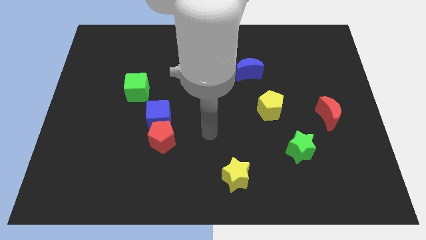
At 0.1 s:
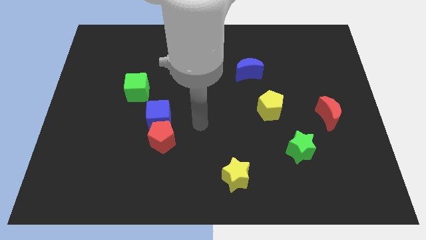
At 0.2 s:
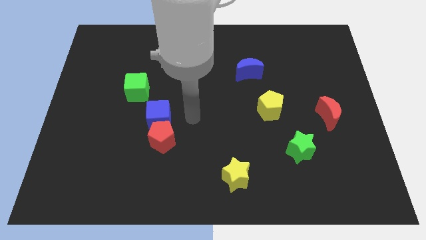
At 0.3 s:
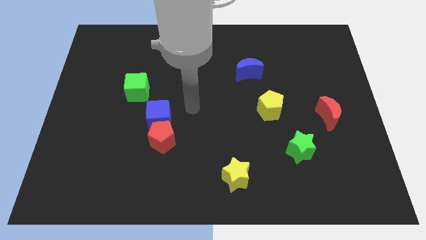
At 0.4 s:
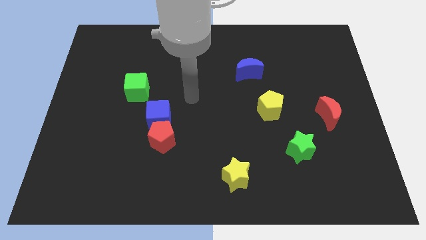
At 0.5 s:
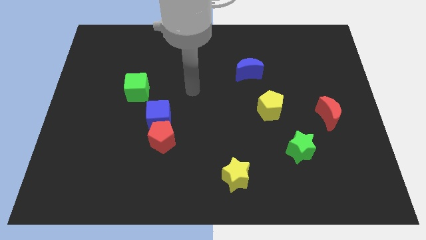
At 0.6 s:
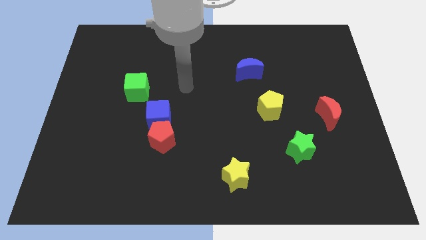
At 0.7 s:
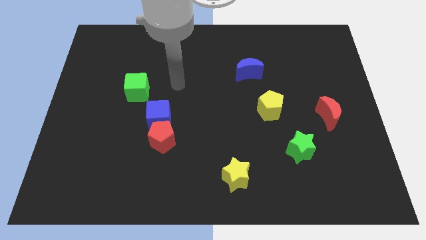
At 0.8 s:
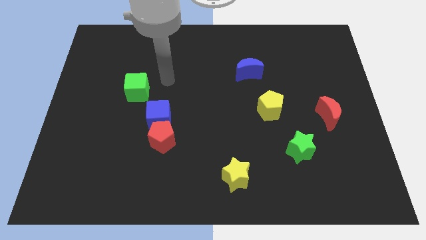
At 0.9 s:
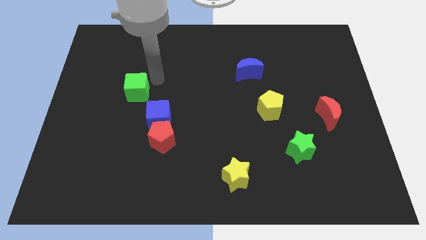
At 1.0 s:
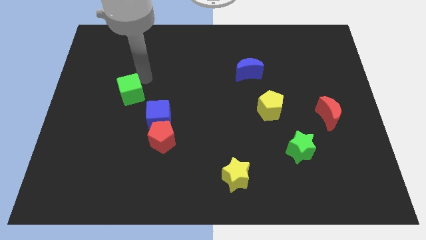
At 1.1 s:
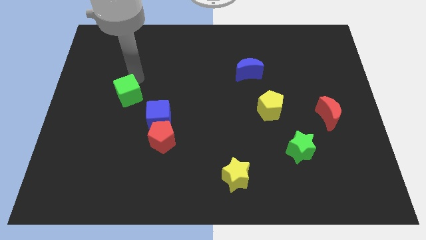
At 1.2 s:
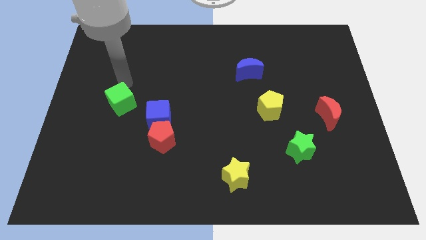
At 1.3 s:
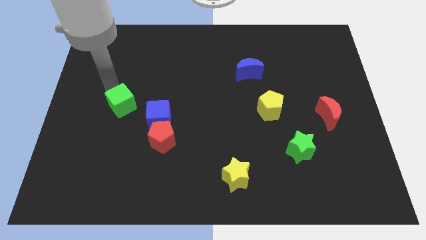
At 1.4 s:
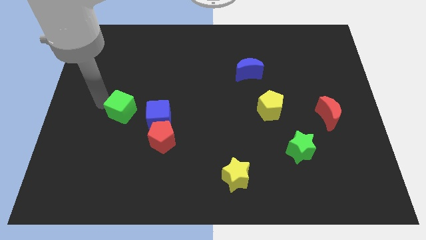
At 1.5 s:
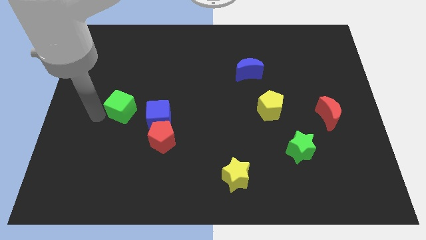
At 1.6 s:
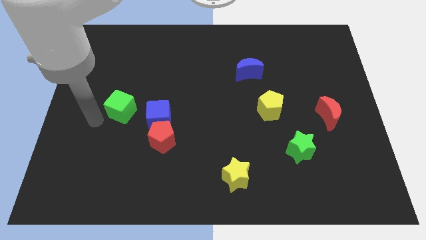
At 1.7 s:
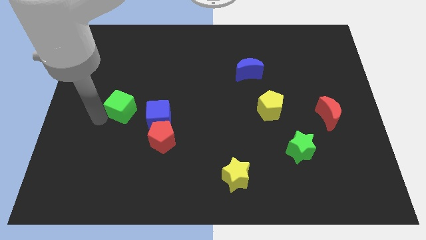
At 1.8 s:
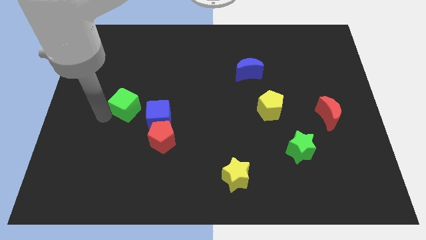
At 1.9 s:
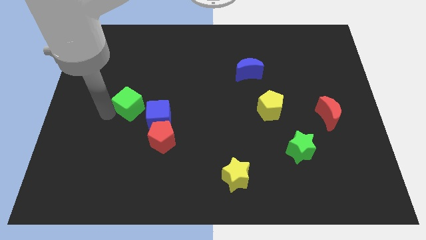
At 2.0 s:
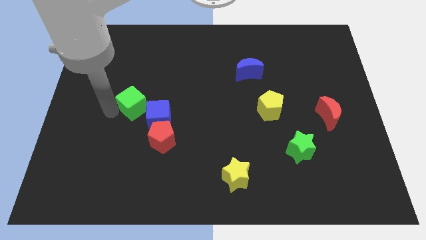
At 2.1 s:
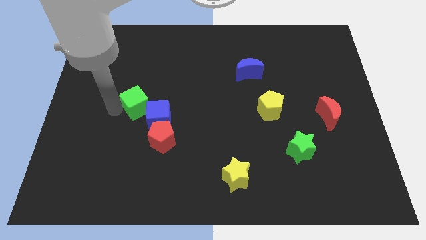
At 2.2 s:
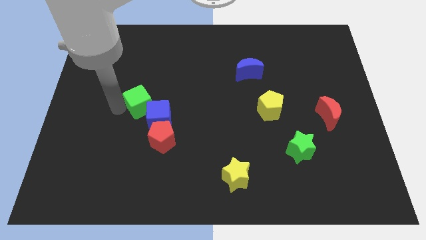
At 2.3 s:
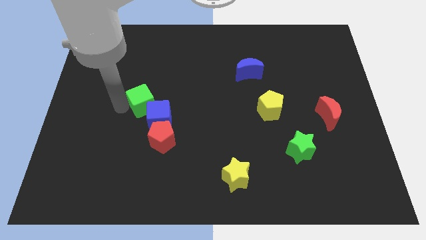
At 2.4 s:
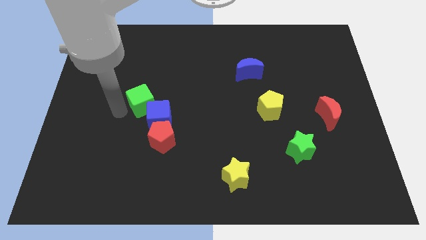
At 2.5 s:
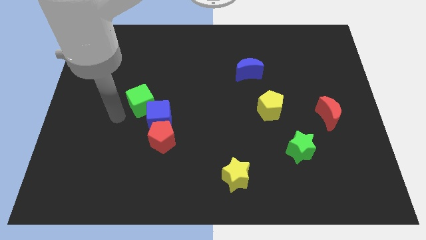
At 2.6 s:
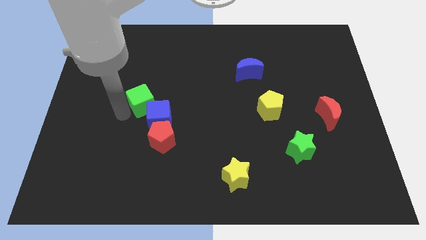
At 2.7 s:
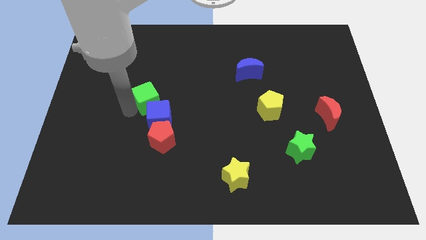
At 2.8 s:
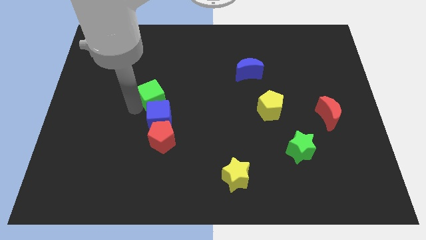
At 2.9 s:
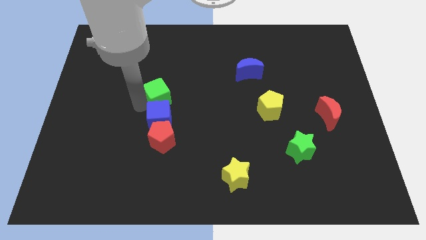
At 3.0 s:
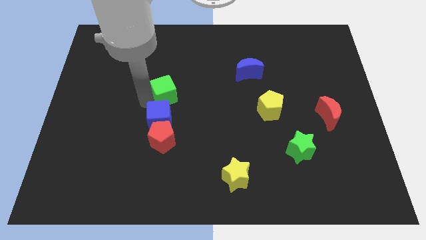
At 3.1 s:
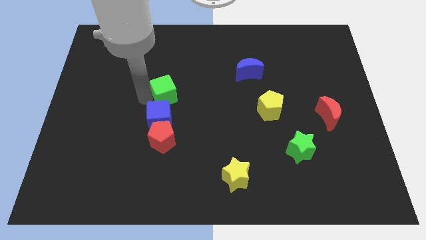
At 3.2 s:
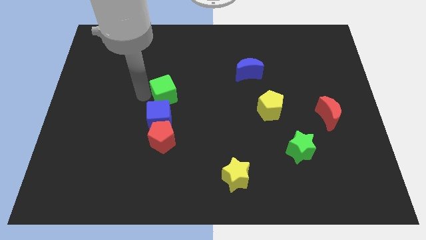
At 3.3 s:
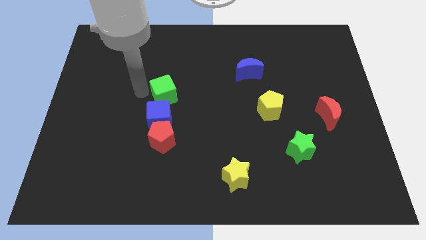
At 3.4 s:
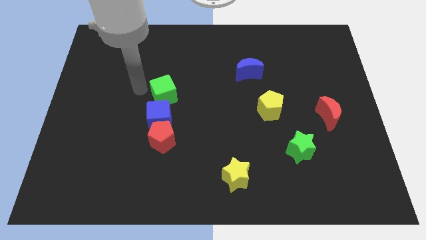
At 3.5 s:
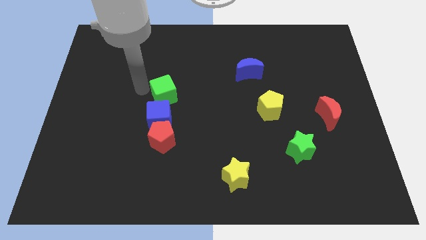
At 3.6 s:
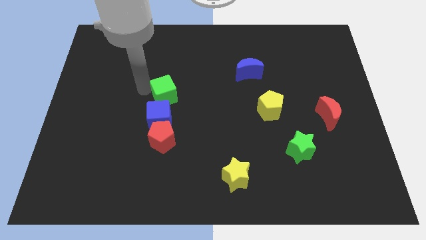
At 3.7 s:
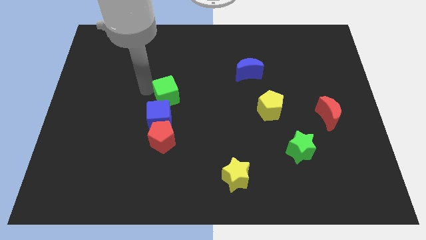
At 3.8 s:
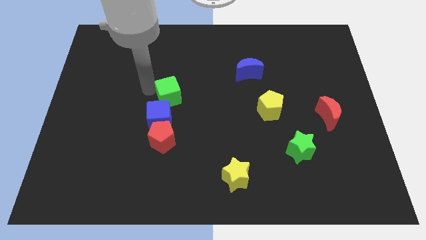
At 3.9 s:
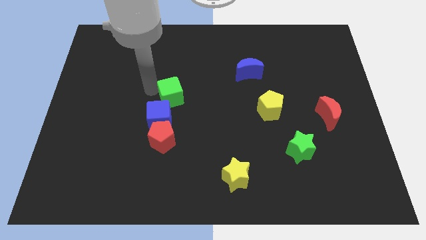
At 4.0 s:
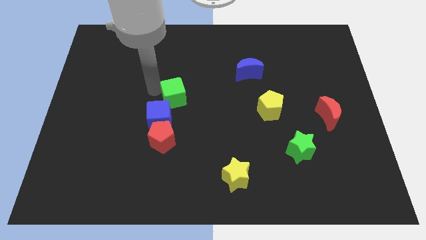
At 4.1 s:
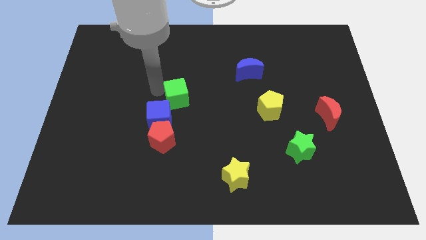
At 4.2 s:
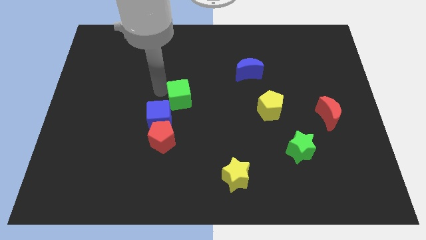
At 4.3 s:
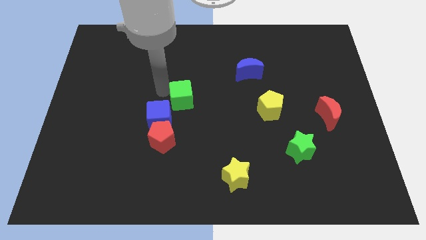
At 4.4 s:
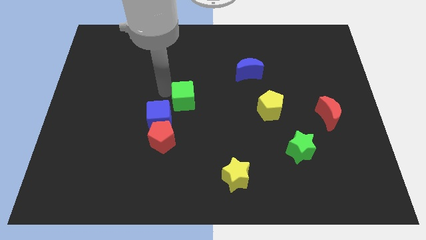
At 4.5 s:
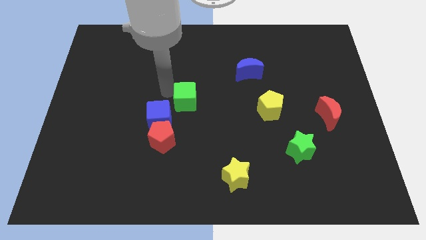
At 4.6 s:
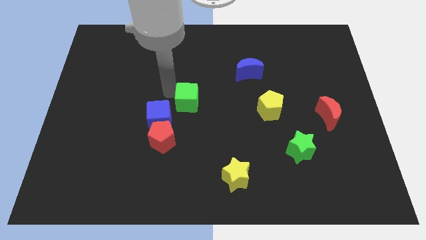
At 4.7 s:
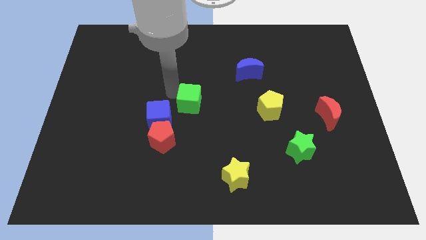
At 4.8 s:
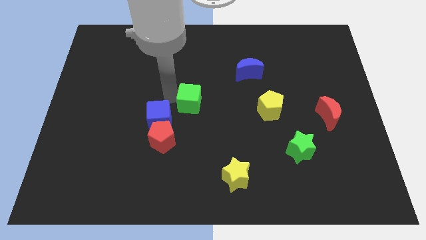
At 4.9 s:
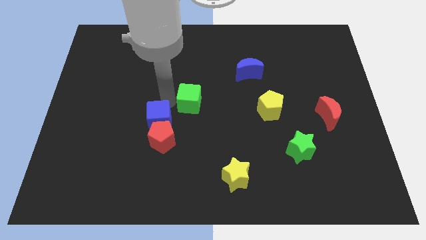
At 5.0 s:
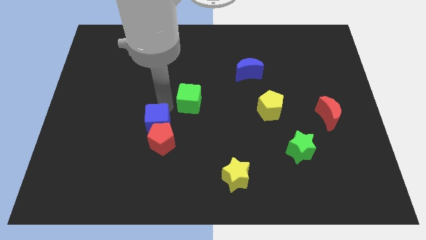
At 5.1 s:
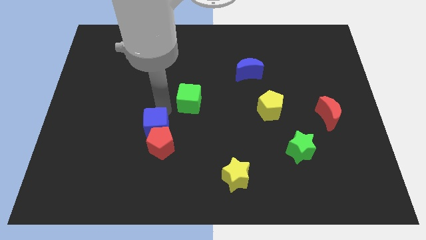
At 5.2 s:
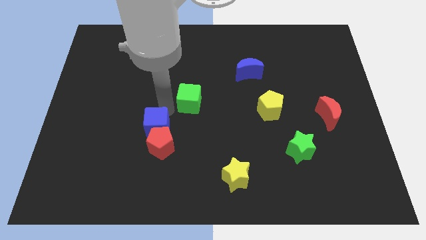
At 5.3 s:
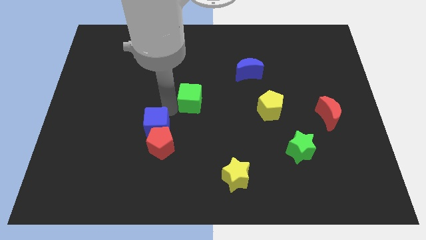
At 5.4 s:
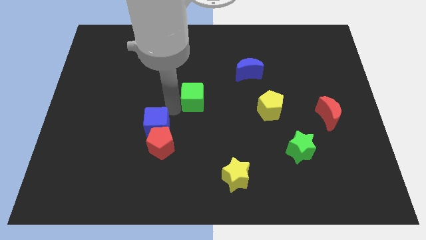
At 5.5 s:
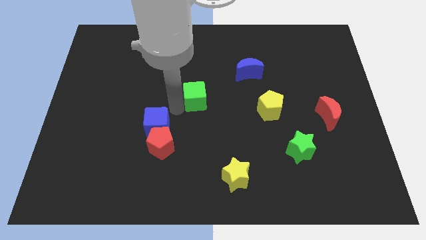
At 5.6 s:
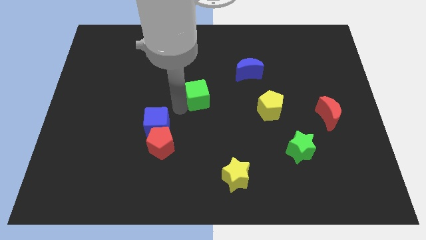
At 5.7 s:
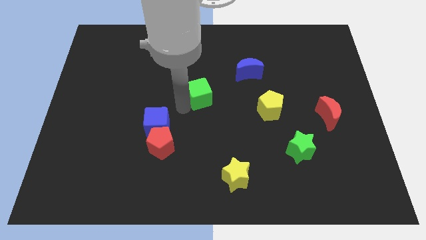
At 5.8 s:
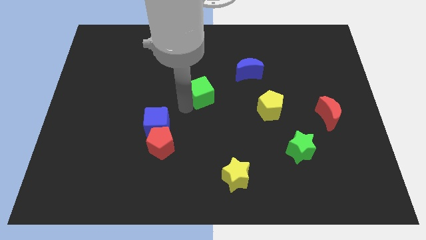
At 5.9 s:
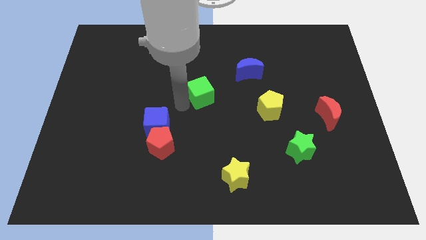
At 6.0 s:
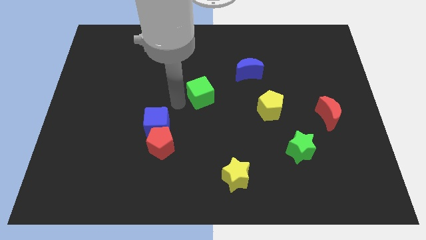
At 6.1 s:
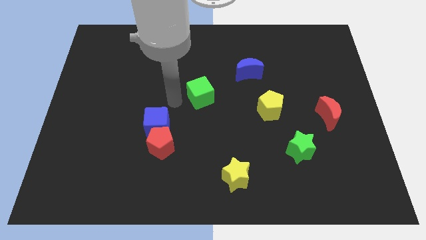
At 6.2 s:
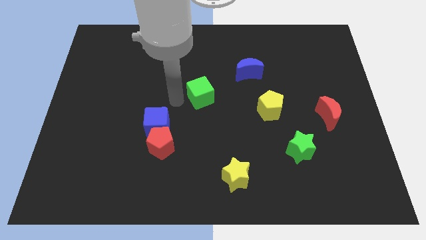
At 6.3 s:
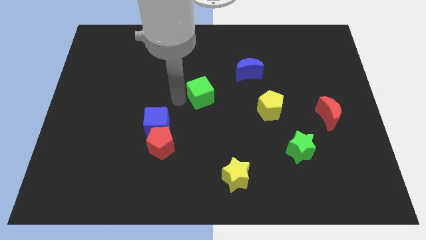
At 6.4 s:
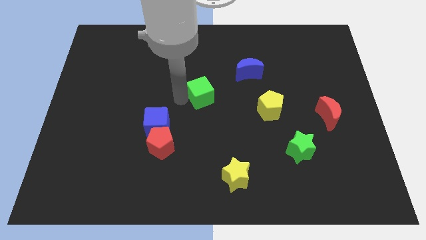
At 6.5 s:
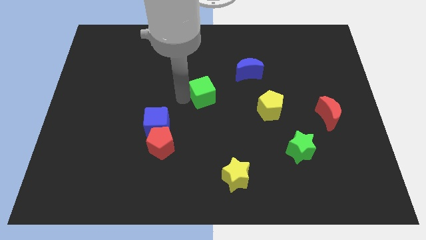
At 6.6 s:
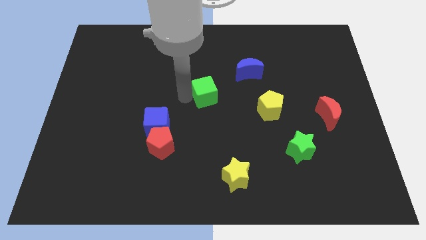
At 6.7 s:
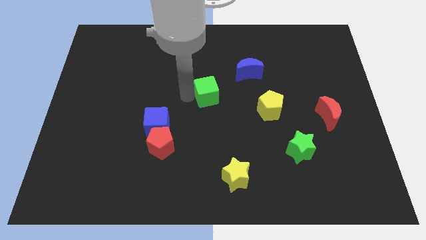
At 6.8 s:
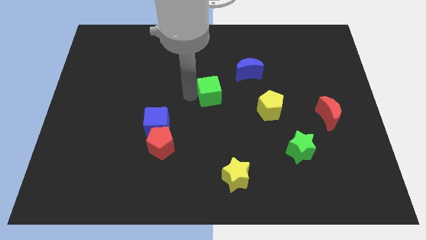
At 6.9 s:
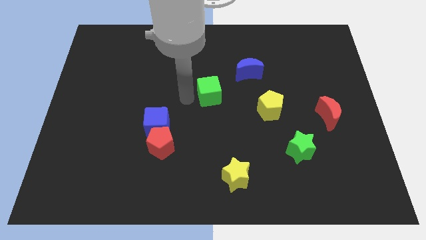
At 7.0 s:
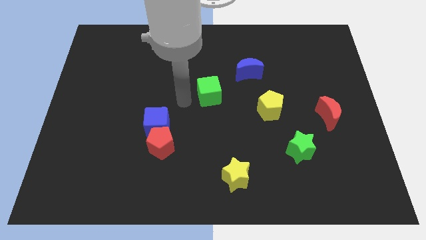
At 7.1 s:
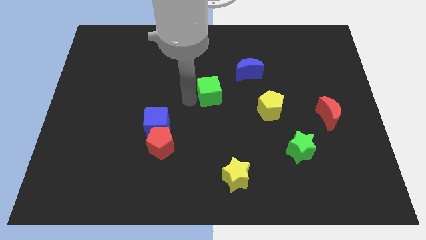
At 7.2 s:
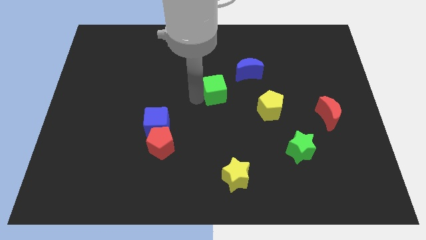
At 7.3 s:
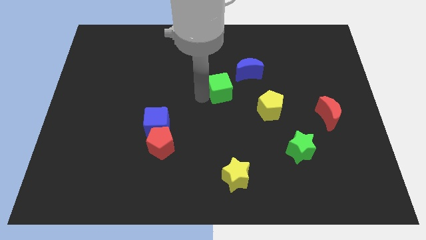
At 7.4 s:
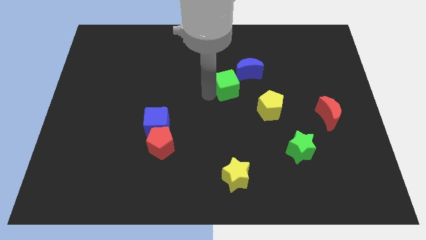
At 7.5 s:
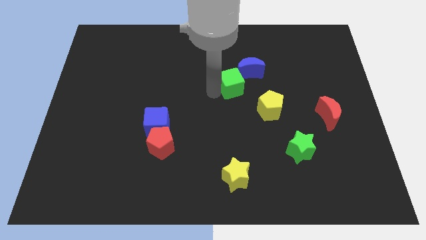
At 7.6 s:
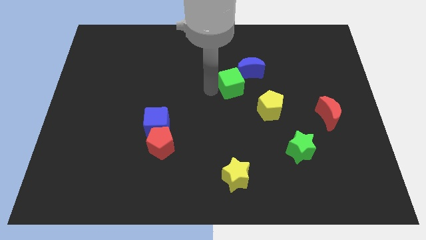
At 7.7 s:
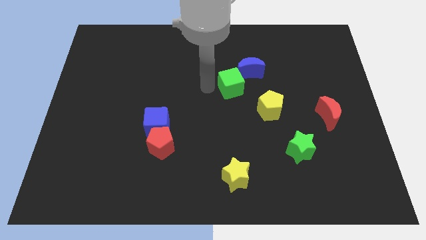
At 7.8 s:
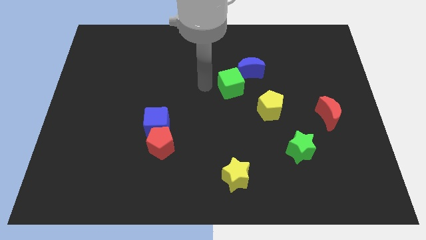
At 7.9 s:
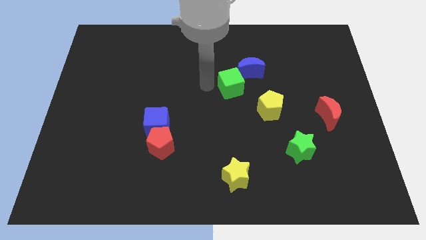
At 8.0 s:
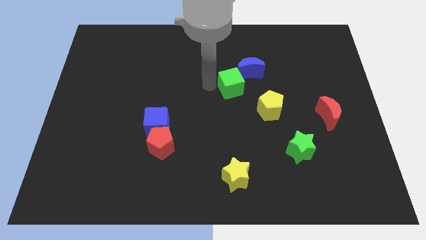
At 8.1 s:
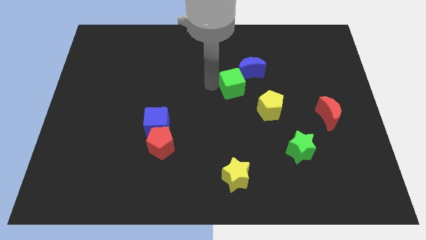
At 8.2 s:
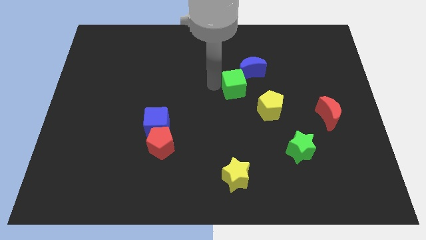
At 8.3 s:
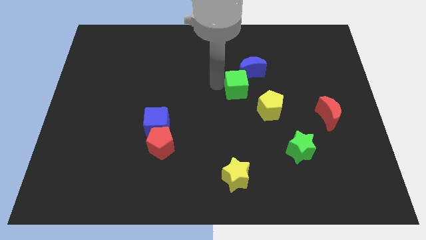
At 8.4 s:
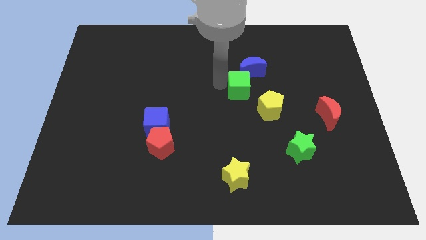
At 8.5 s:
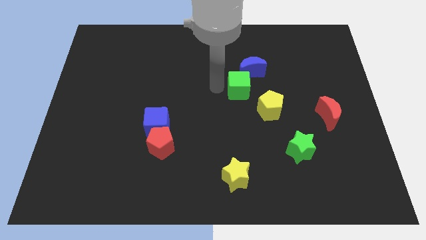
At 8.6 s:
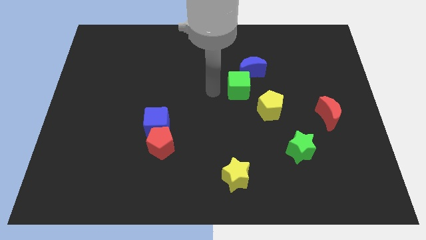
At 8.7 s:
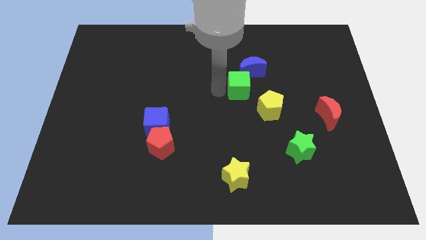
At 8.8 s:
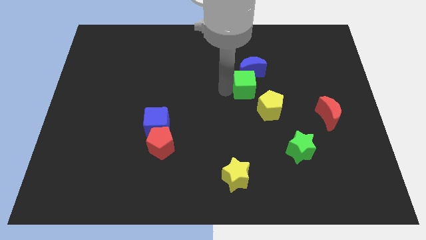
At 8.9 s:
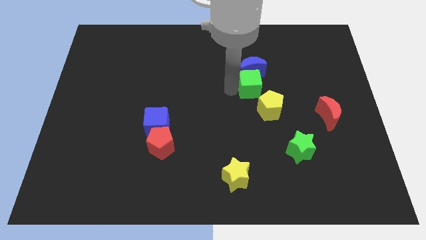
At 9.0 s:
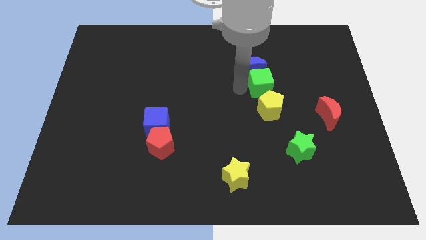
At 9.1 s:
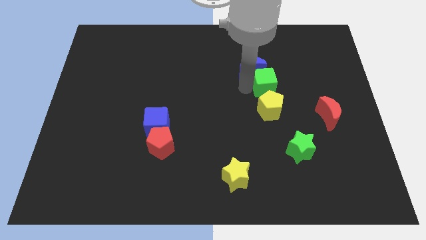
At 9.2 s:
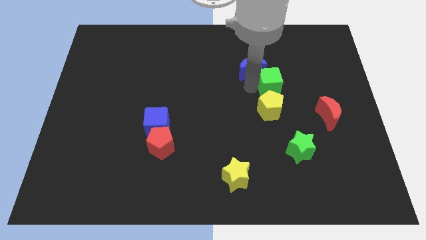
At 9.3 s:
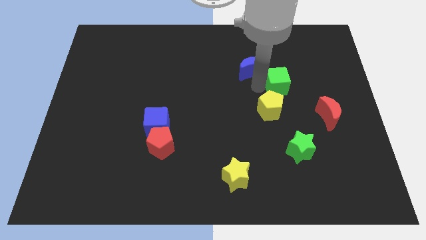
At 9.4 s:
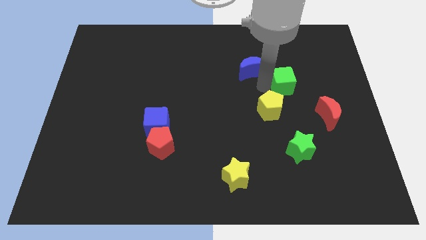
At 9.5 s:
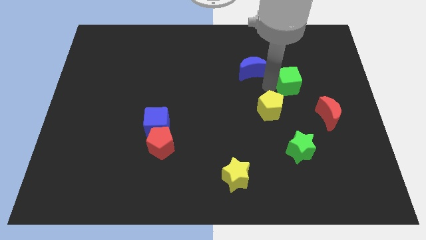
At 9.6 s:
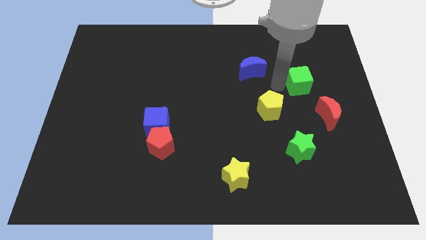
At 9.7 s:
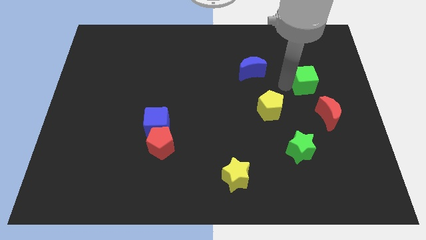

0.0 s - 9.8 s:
push the green cube to the top side of the red moon
